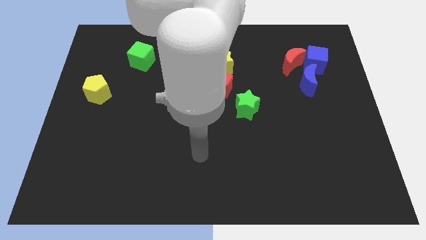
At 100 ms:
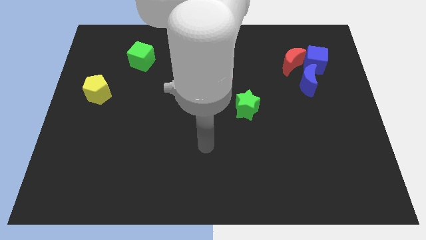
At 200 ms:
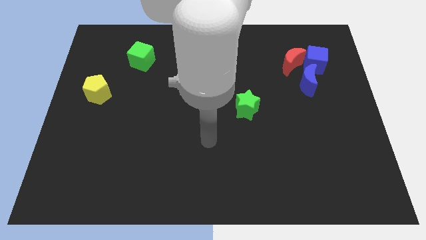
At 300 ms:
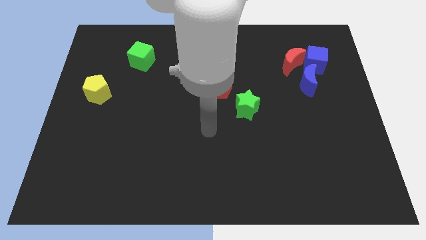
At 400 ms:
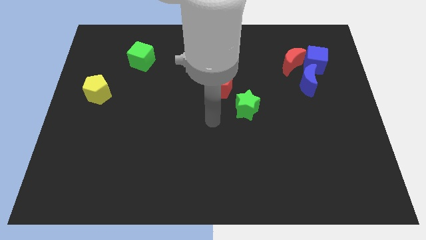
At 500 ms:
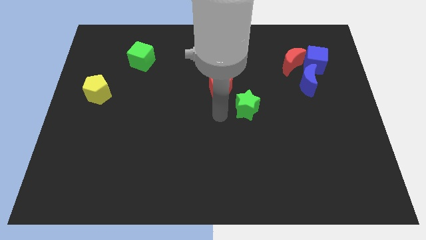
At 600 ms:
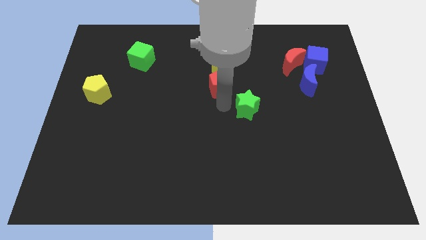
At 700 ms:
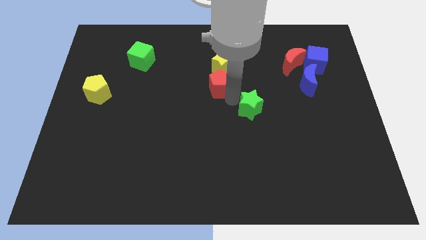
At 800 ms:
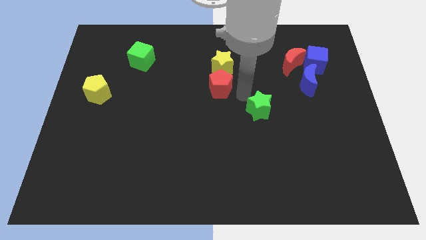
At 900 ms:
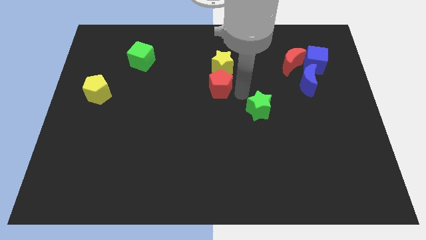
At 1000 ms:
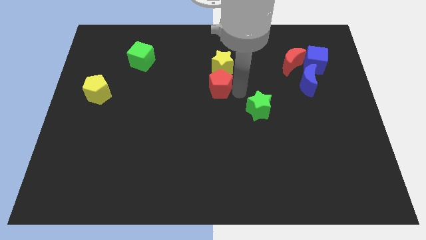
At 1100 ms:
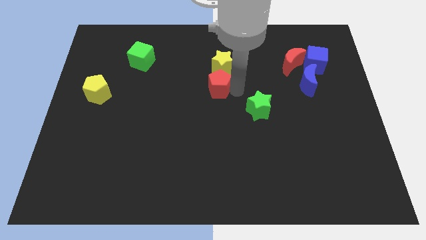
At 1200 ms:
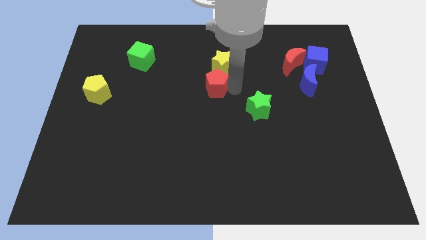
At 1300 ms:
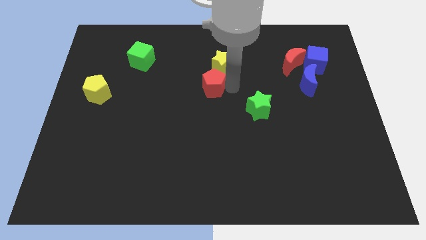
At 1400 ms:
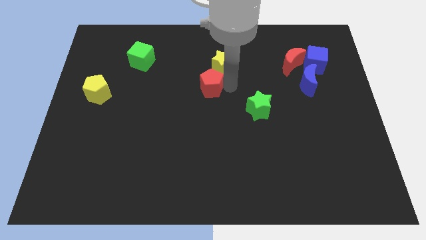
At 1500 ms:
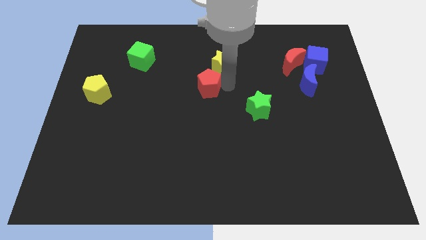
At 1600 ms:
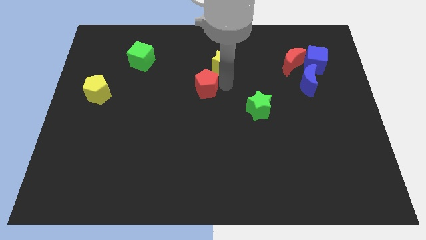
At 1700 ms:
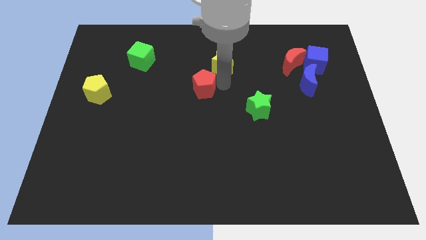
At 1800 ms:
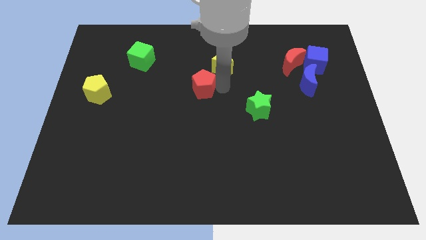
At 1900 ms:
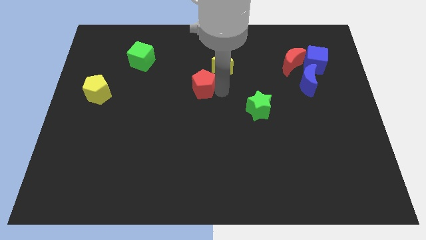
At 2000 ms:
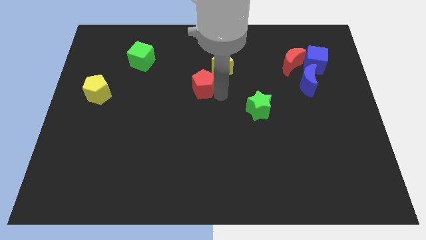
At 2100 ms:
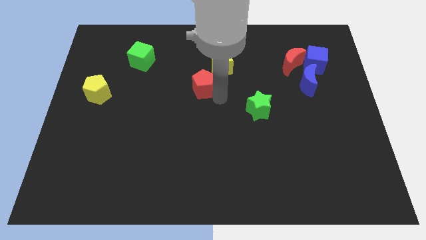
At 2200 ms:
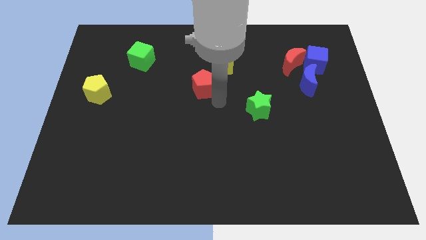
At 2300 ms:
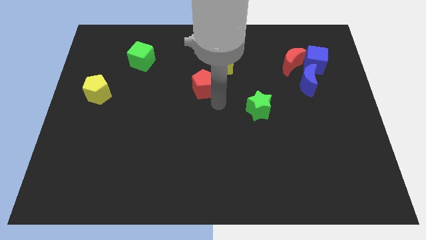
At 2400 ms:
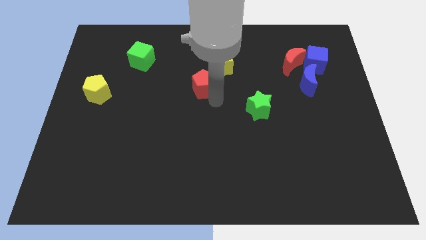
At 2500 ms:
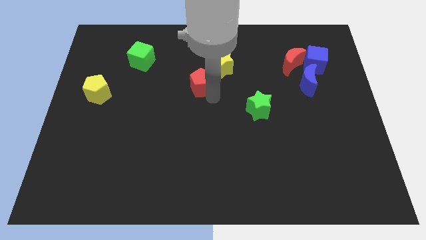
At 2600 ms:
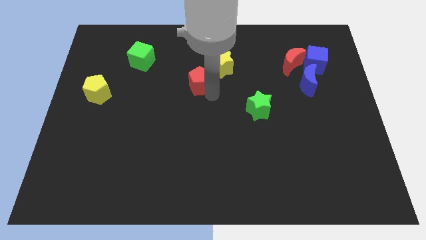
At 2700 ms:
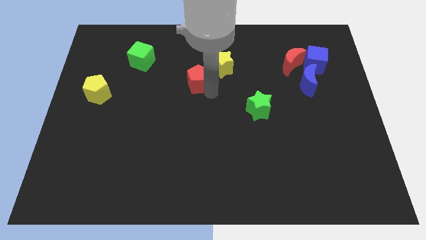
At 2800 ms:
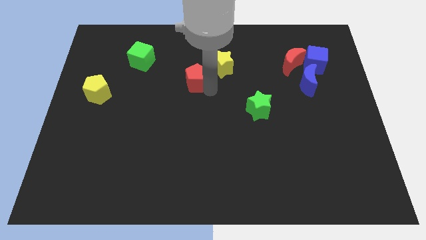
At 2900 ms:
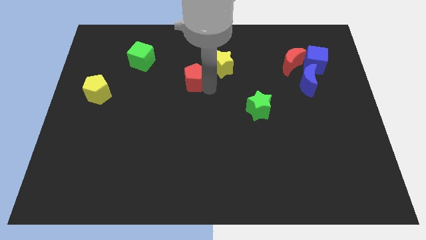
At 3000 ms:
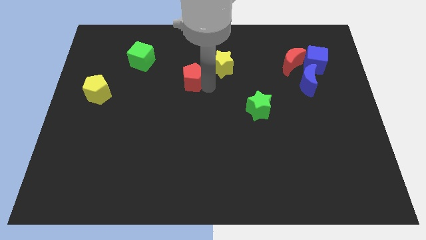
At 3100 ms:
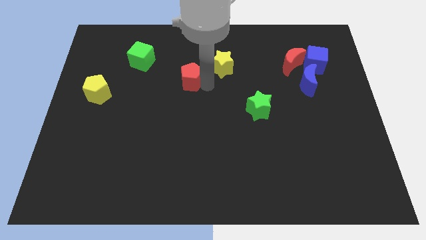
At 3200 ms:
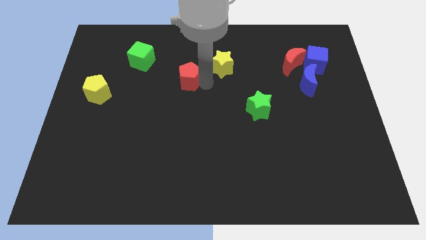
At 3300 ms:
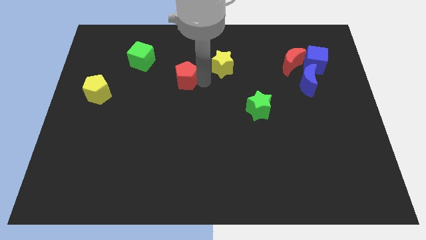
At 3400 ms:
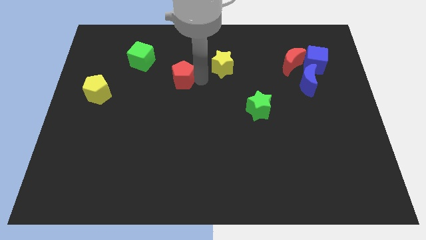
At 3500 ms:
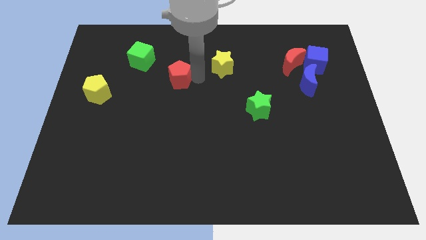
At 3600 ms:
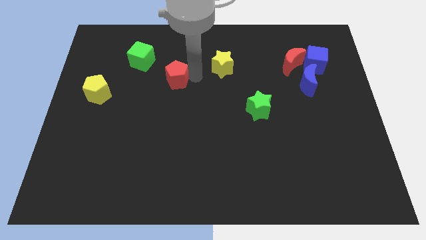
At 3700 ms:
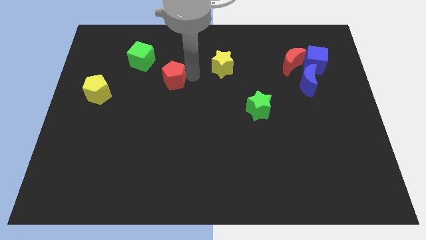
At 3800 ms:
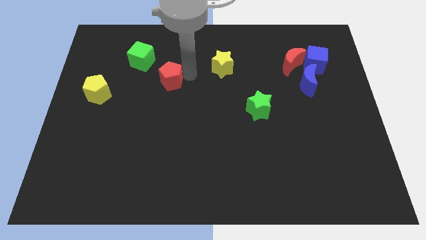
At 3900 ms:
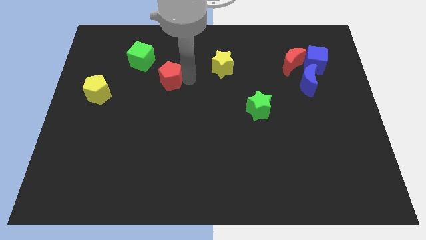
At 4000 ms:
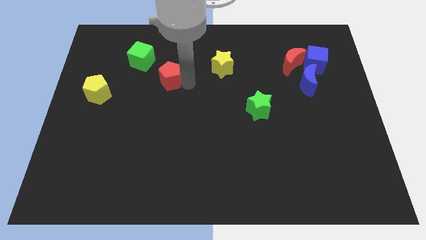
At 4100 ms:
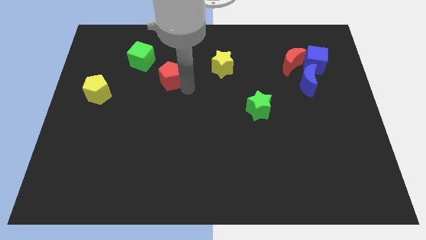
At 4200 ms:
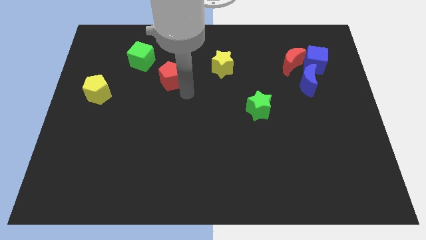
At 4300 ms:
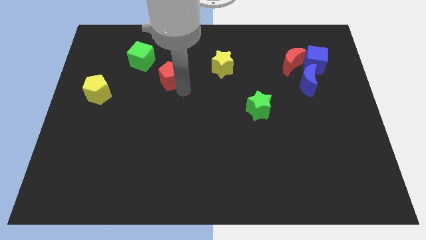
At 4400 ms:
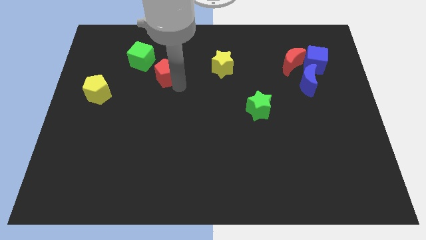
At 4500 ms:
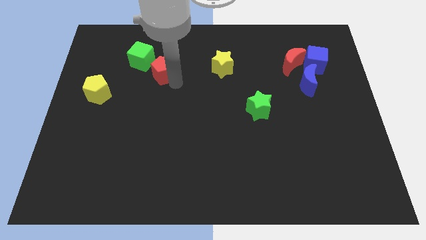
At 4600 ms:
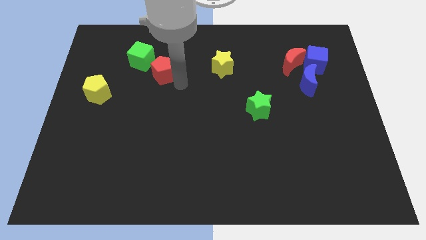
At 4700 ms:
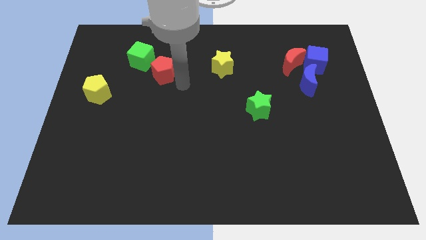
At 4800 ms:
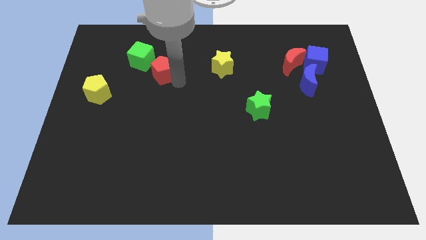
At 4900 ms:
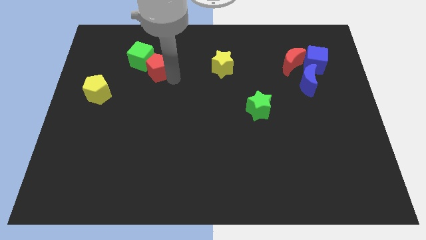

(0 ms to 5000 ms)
move the red pentagon next to the green cube

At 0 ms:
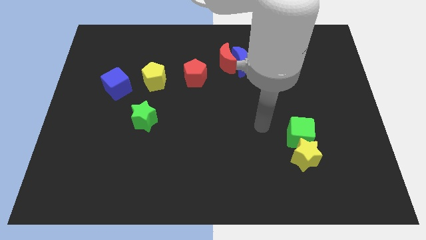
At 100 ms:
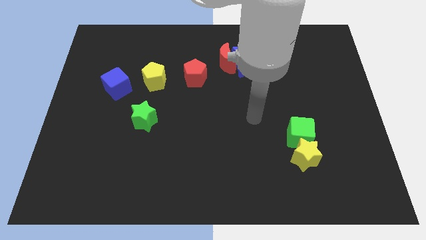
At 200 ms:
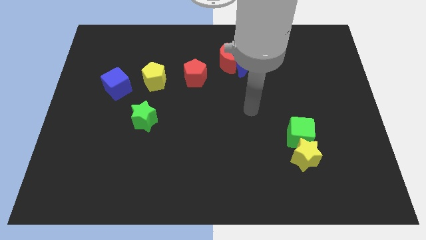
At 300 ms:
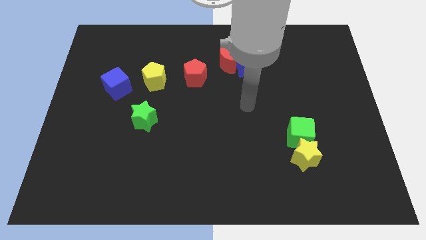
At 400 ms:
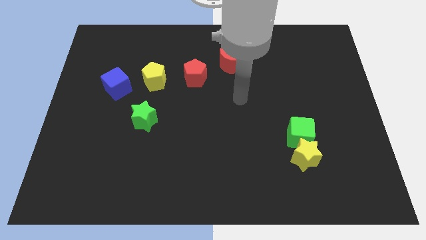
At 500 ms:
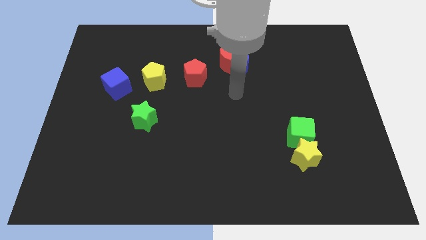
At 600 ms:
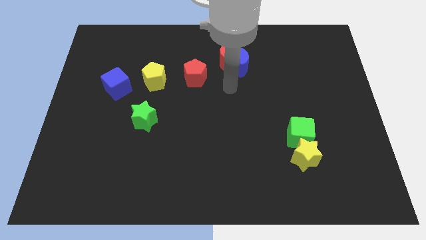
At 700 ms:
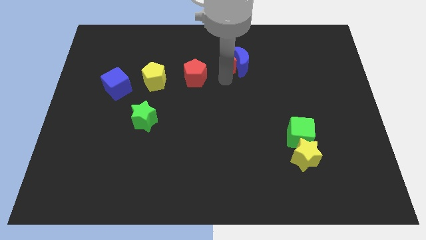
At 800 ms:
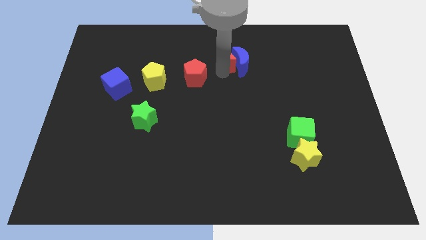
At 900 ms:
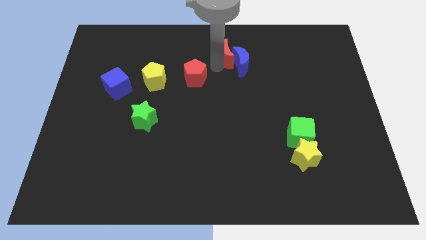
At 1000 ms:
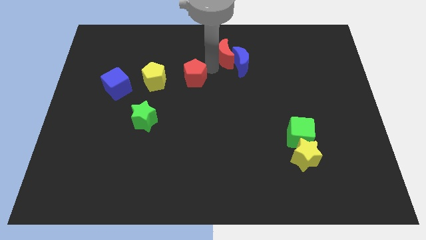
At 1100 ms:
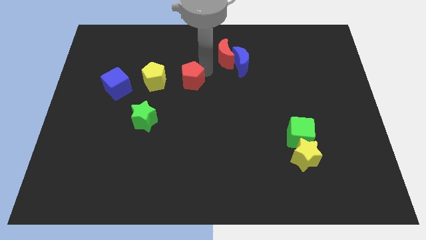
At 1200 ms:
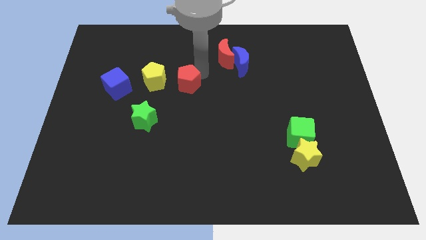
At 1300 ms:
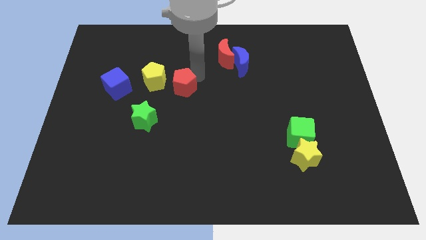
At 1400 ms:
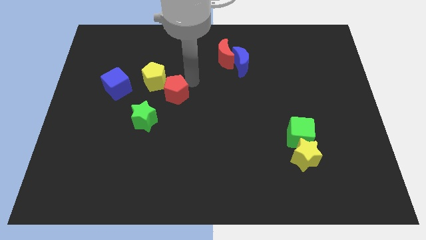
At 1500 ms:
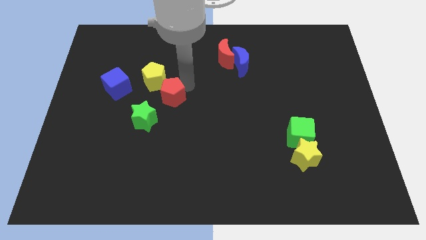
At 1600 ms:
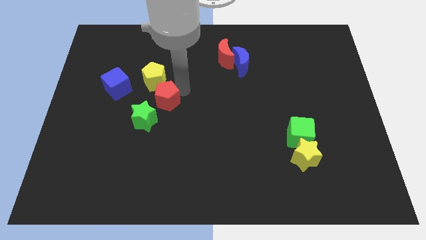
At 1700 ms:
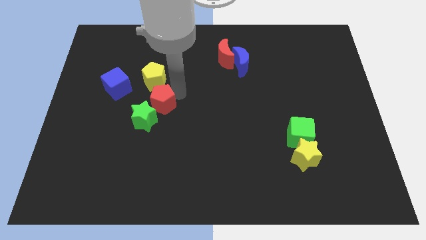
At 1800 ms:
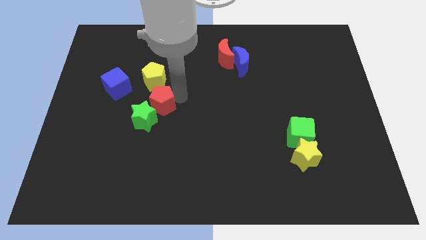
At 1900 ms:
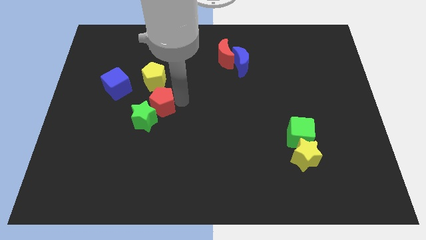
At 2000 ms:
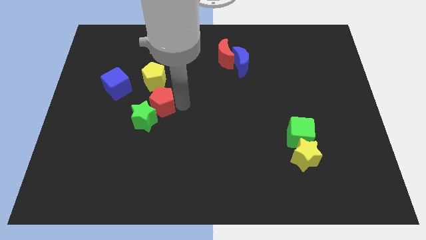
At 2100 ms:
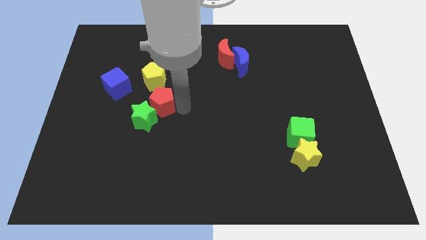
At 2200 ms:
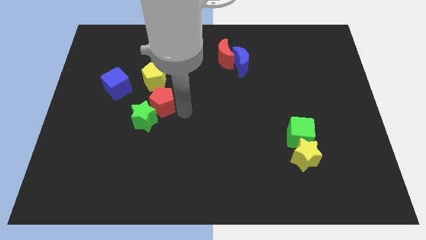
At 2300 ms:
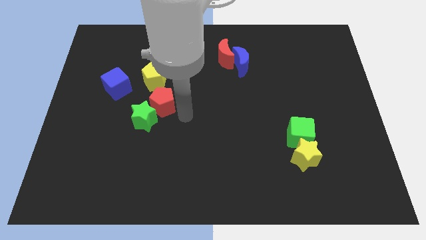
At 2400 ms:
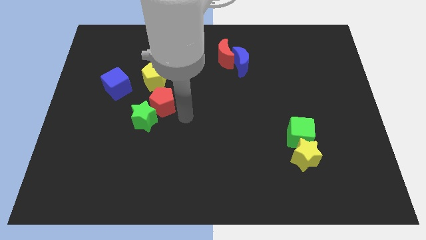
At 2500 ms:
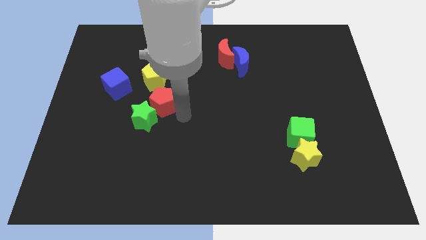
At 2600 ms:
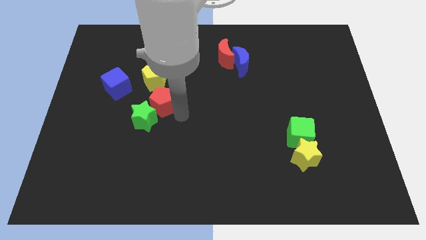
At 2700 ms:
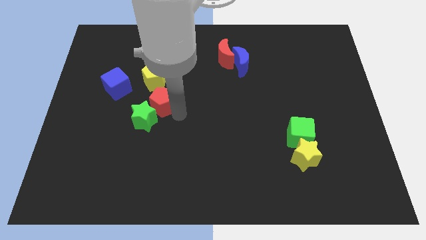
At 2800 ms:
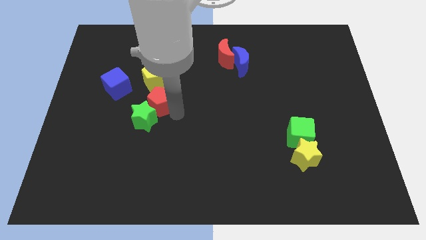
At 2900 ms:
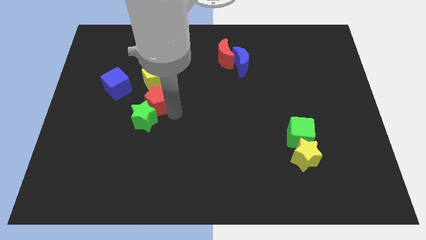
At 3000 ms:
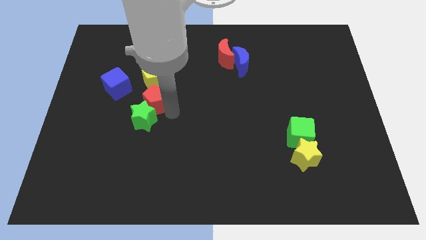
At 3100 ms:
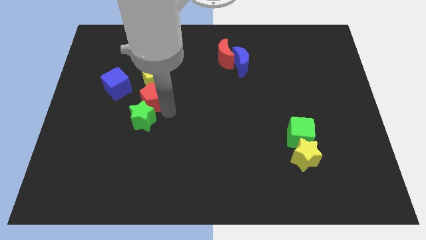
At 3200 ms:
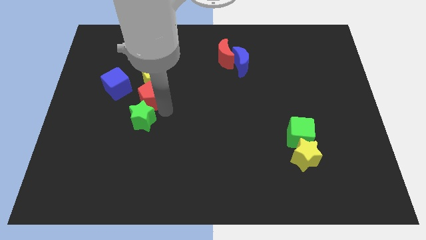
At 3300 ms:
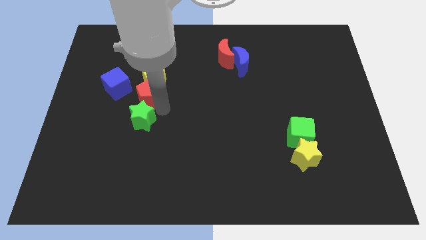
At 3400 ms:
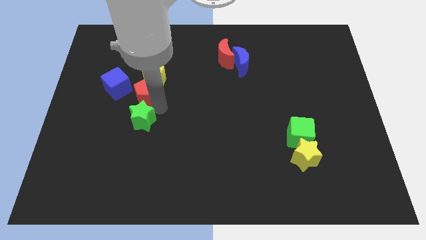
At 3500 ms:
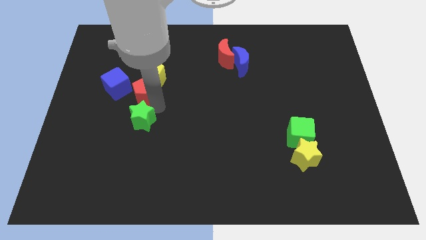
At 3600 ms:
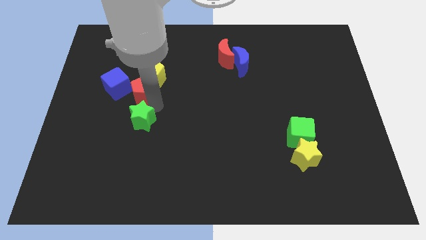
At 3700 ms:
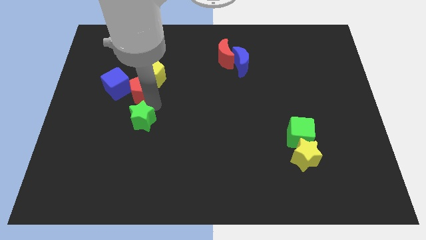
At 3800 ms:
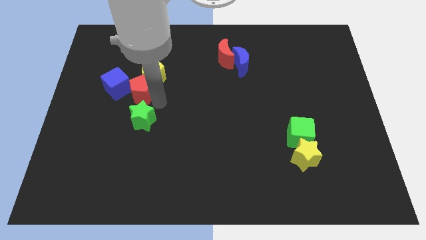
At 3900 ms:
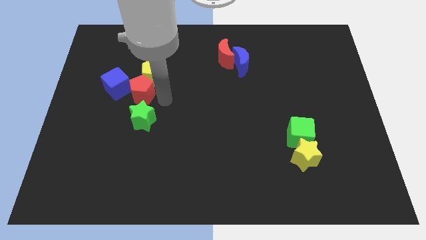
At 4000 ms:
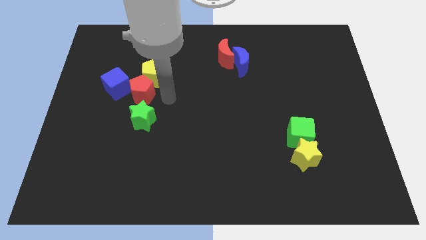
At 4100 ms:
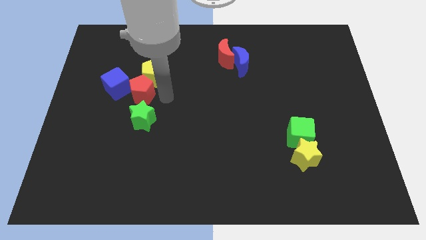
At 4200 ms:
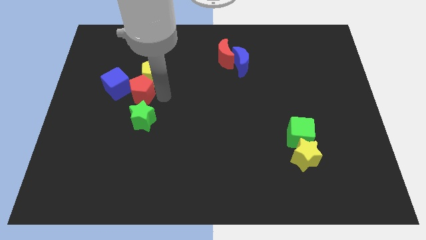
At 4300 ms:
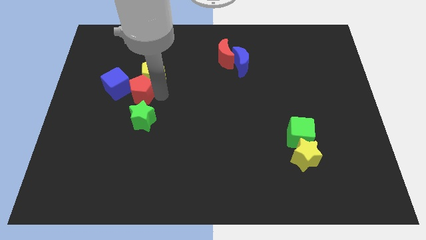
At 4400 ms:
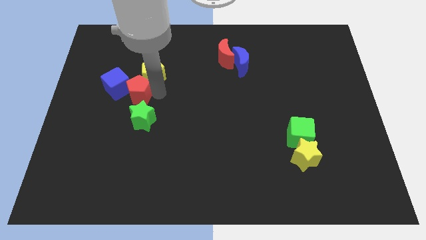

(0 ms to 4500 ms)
put the red pentagon next to the blue cube
